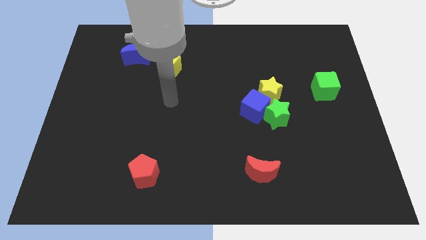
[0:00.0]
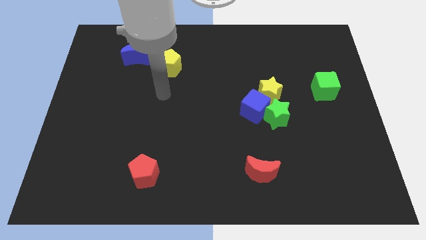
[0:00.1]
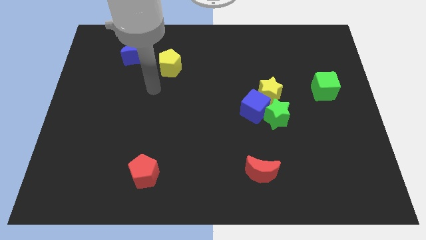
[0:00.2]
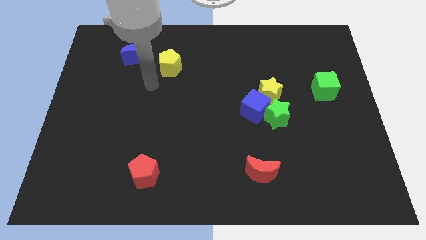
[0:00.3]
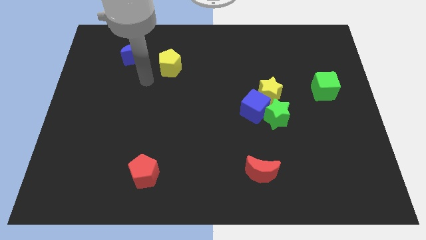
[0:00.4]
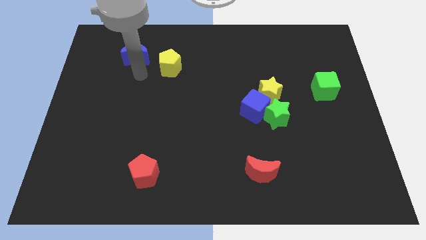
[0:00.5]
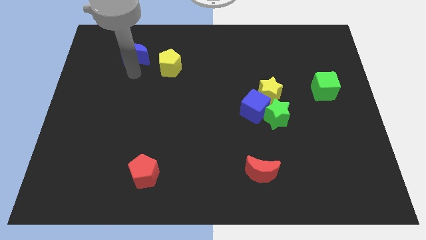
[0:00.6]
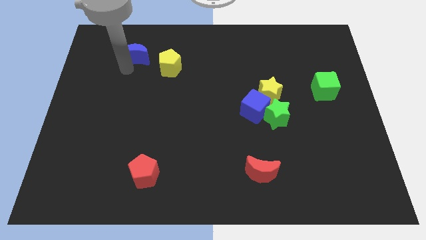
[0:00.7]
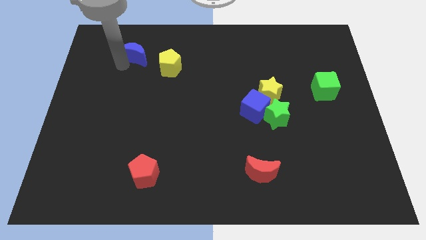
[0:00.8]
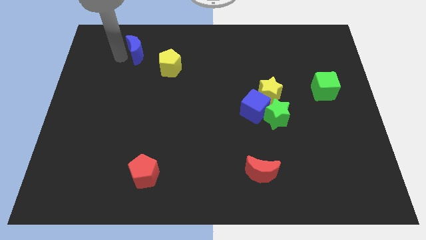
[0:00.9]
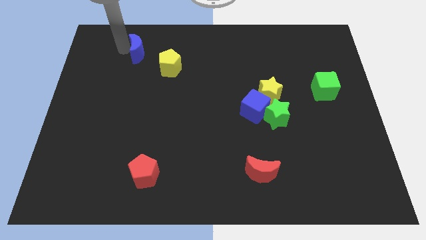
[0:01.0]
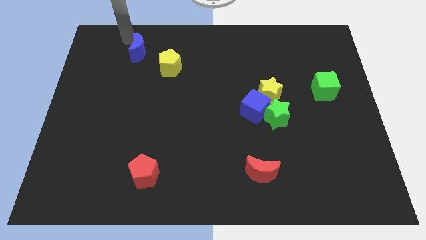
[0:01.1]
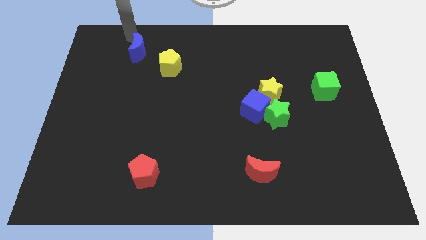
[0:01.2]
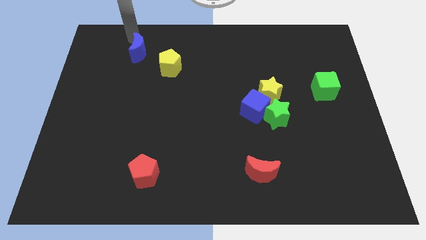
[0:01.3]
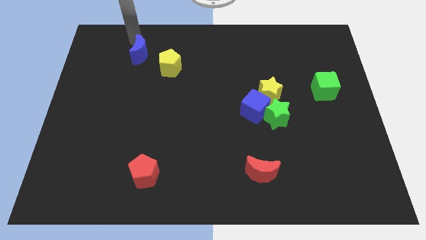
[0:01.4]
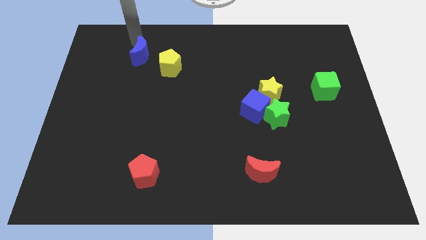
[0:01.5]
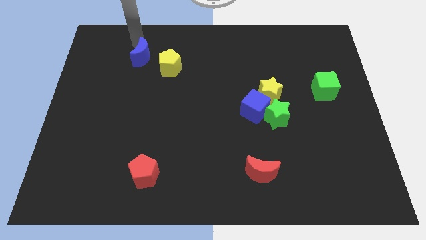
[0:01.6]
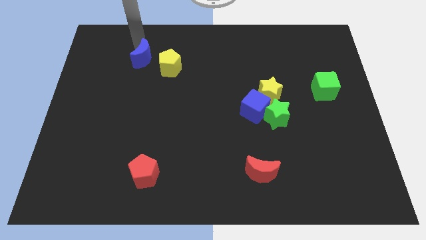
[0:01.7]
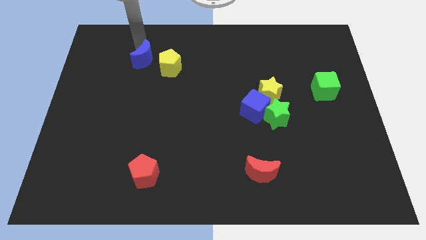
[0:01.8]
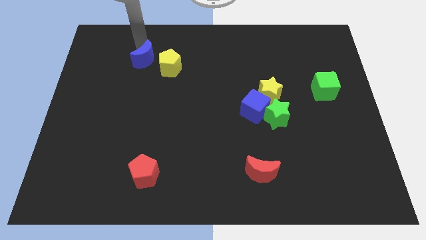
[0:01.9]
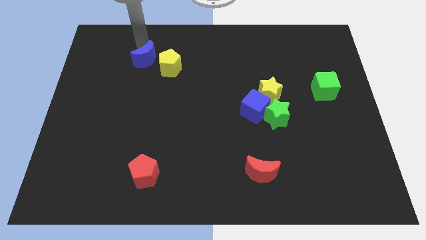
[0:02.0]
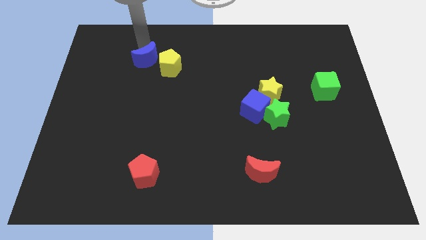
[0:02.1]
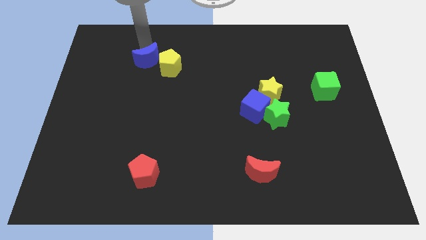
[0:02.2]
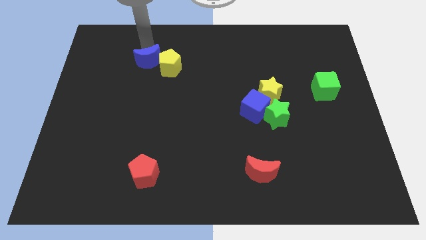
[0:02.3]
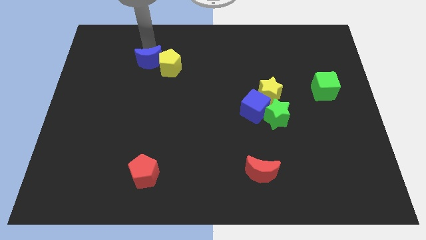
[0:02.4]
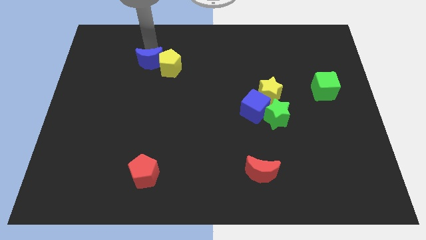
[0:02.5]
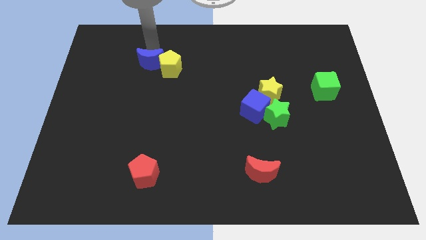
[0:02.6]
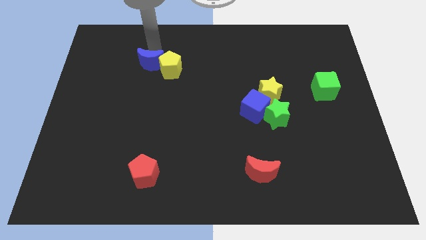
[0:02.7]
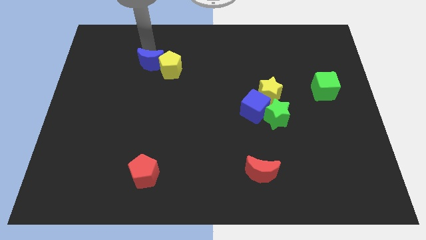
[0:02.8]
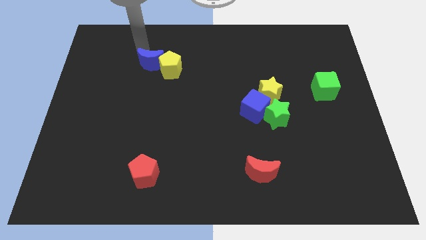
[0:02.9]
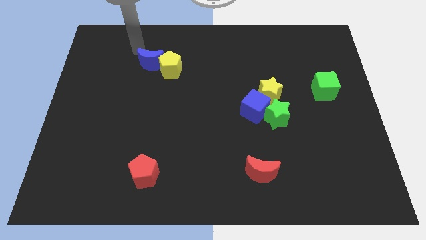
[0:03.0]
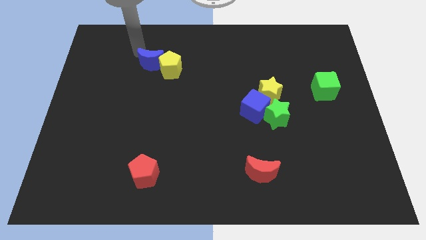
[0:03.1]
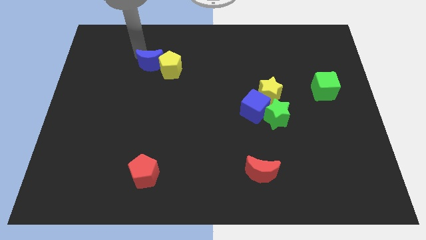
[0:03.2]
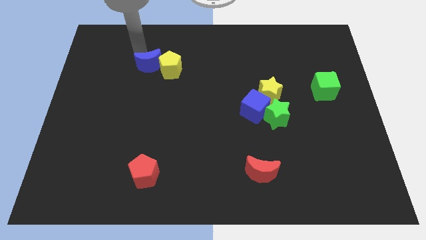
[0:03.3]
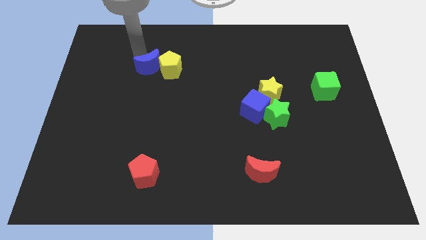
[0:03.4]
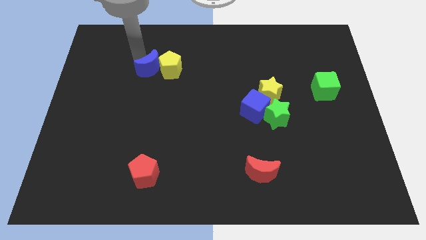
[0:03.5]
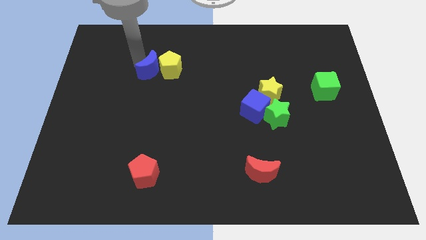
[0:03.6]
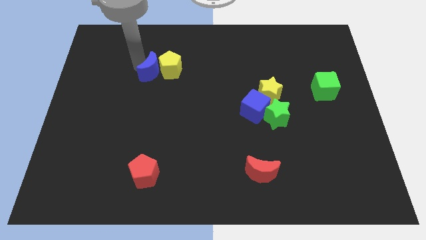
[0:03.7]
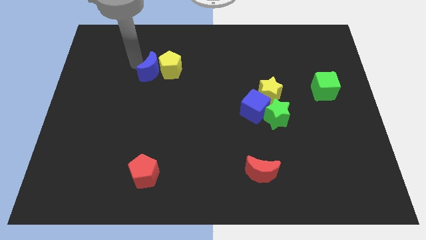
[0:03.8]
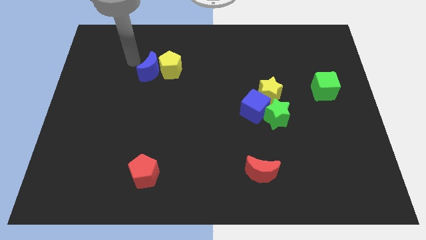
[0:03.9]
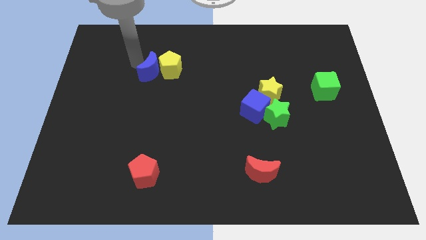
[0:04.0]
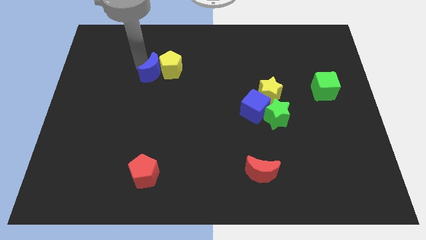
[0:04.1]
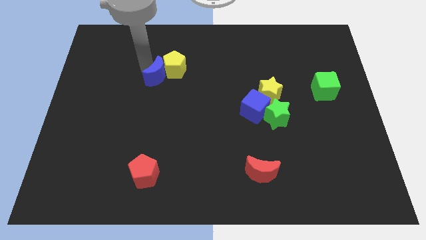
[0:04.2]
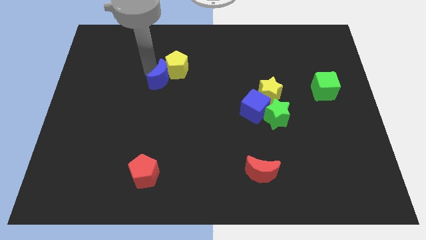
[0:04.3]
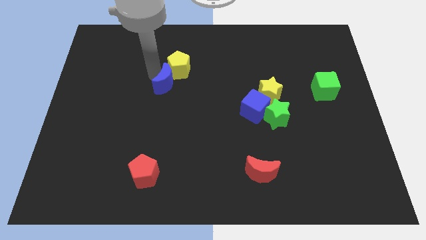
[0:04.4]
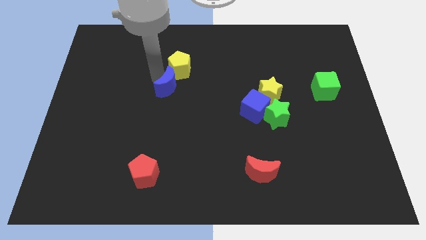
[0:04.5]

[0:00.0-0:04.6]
push the blue moon to the center of the board

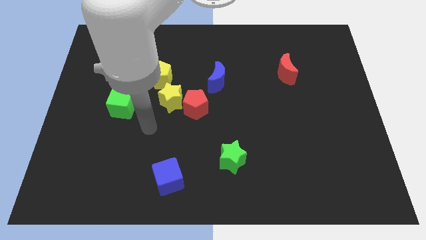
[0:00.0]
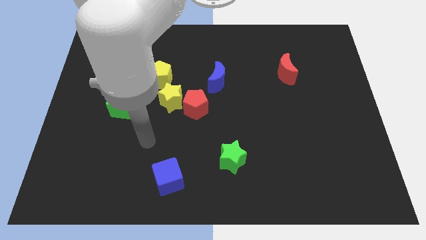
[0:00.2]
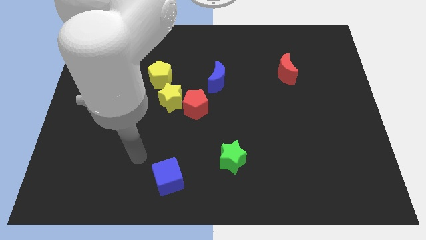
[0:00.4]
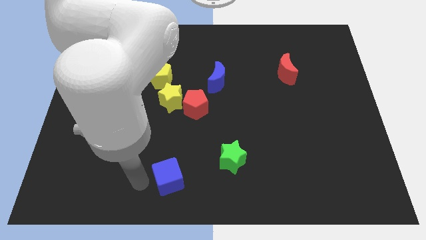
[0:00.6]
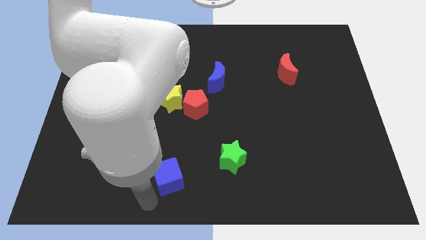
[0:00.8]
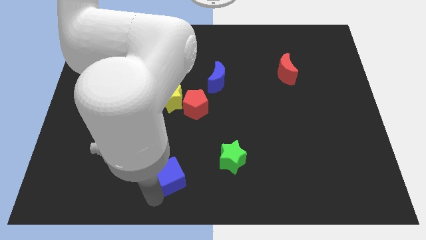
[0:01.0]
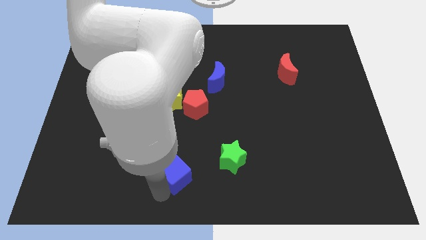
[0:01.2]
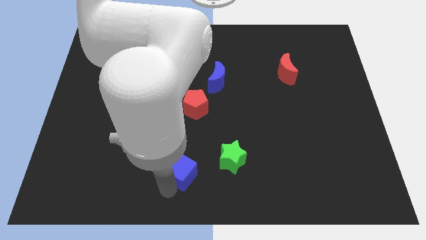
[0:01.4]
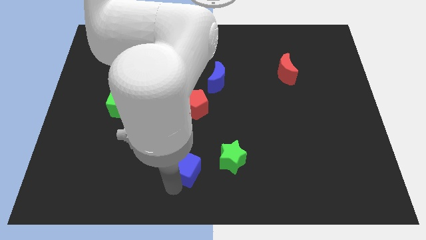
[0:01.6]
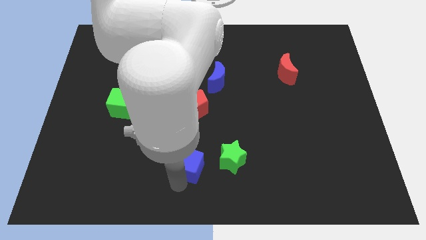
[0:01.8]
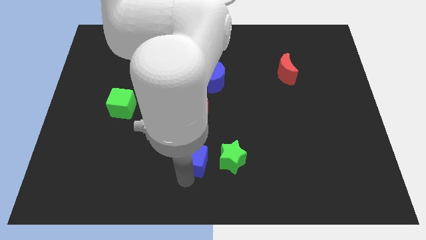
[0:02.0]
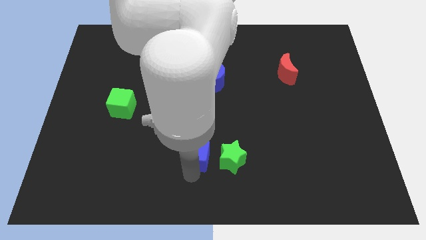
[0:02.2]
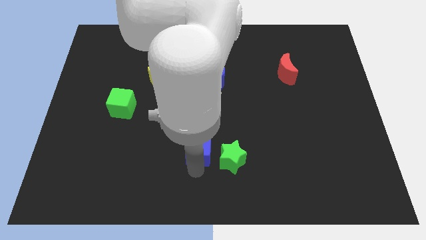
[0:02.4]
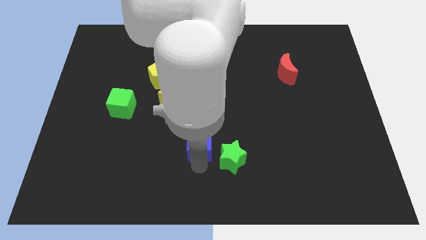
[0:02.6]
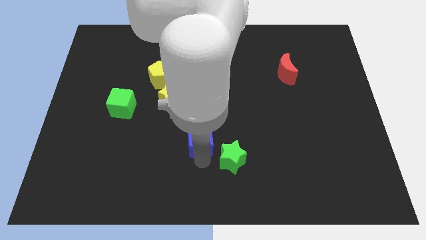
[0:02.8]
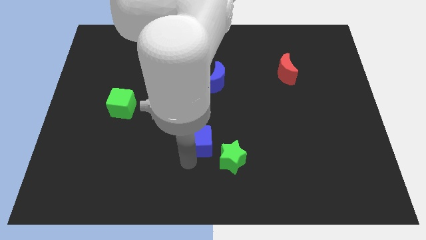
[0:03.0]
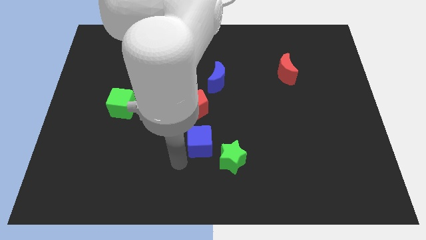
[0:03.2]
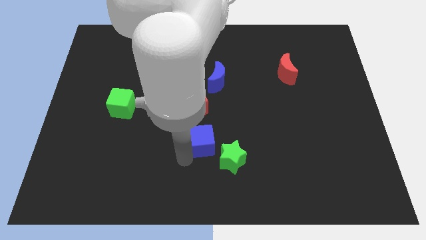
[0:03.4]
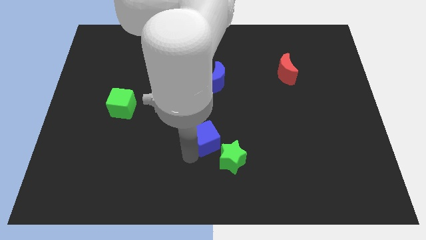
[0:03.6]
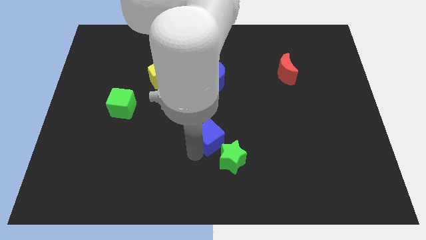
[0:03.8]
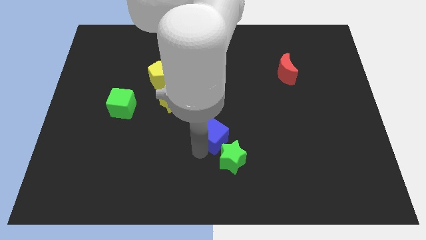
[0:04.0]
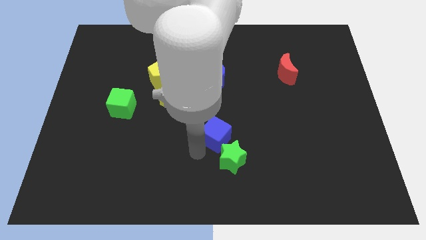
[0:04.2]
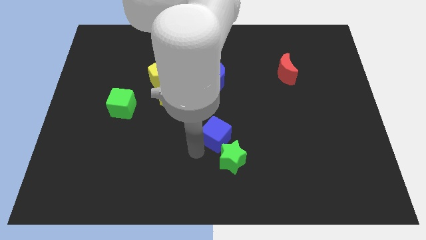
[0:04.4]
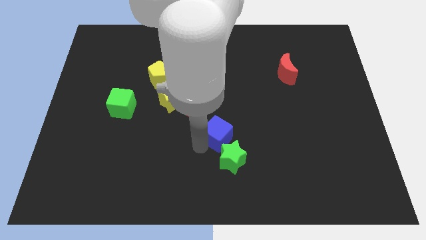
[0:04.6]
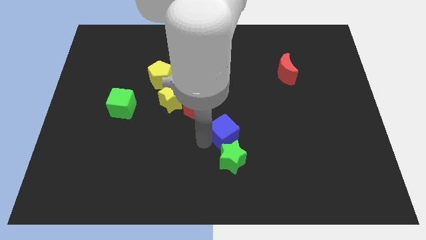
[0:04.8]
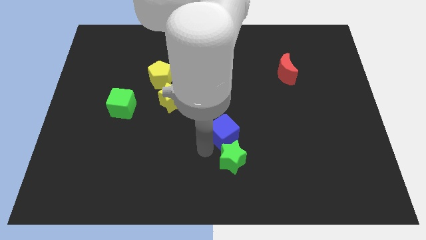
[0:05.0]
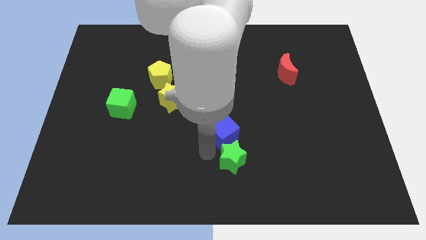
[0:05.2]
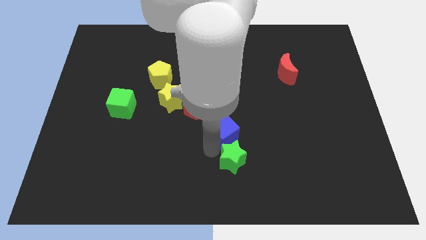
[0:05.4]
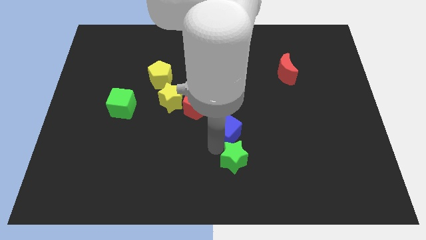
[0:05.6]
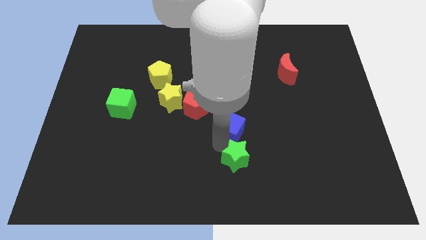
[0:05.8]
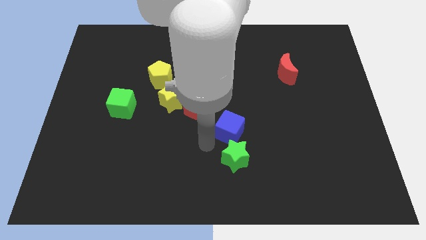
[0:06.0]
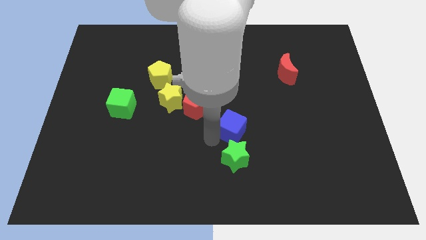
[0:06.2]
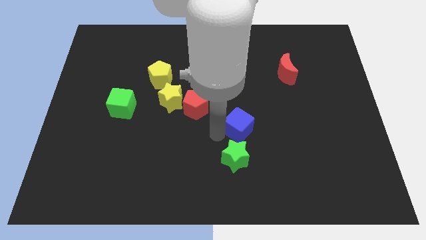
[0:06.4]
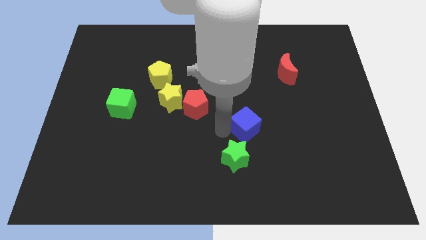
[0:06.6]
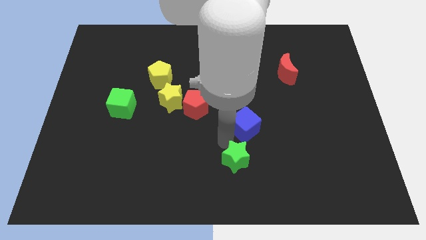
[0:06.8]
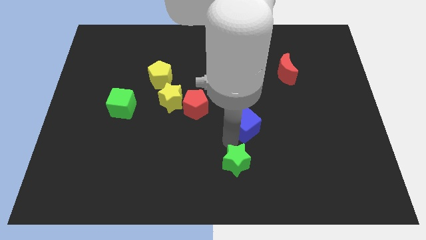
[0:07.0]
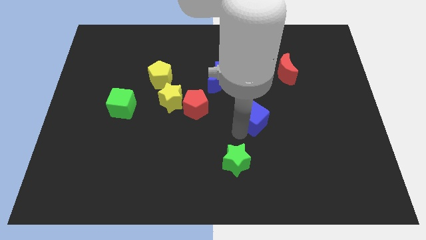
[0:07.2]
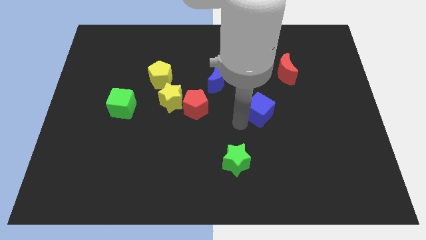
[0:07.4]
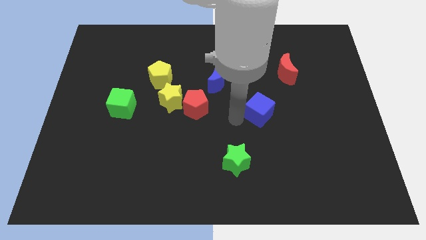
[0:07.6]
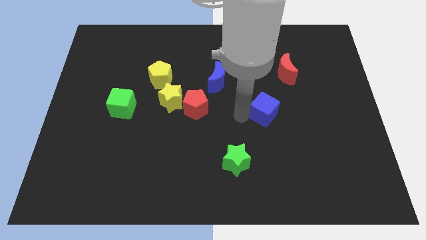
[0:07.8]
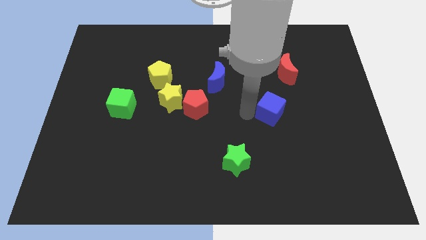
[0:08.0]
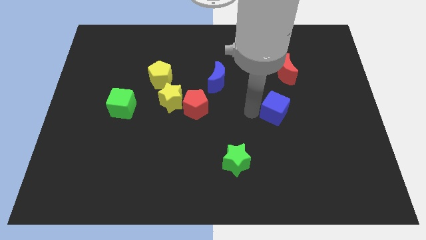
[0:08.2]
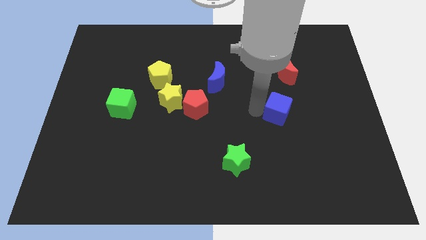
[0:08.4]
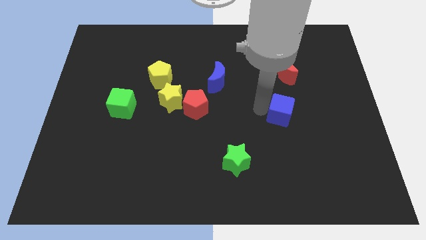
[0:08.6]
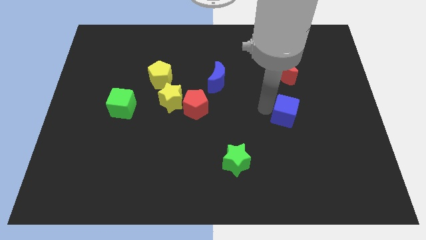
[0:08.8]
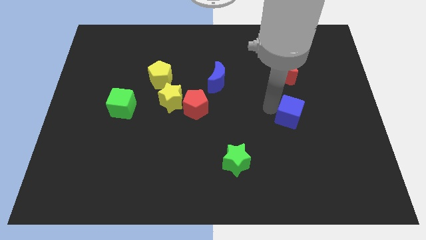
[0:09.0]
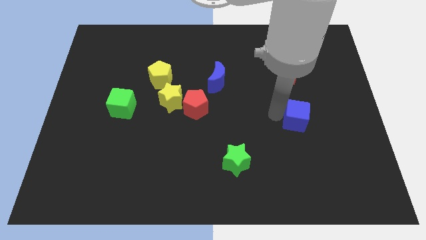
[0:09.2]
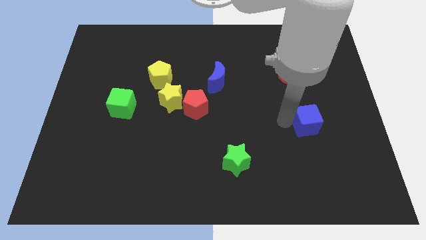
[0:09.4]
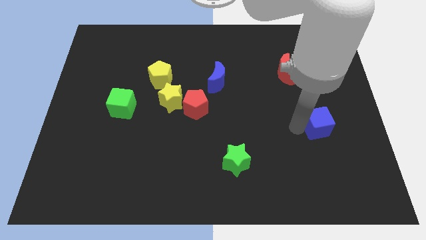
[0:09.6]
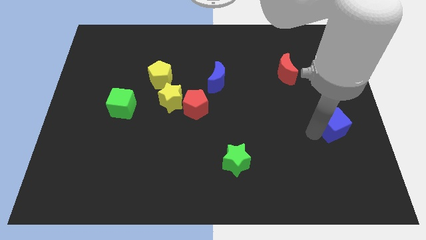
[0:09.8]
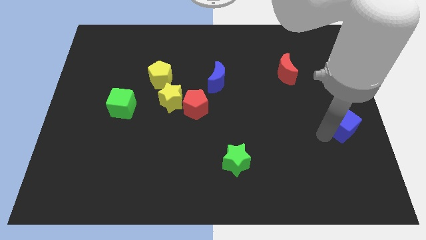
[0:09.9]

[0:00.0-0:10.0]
push the blue cube to the center right
